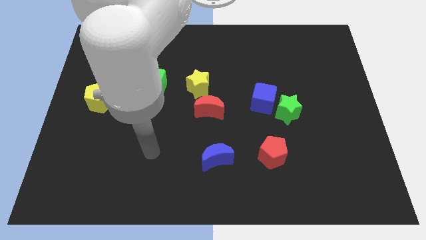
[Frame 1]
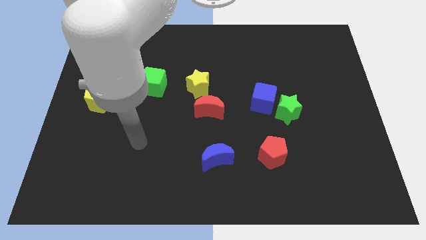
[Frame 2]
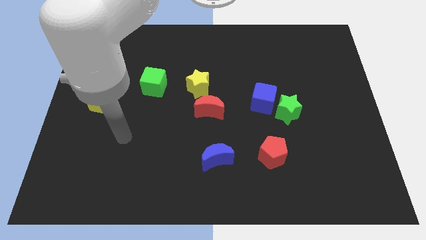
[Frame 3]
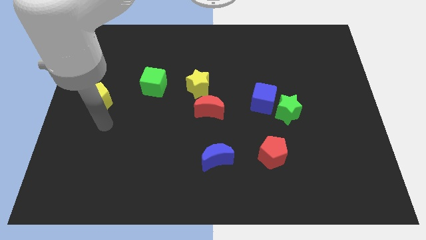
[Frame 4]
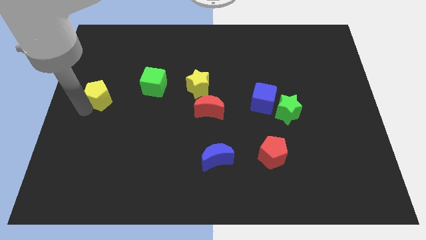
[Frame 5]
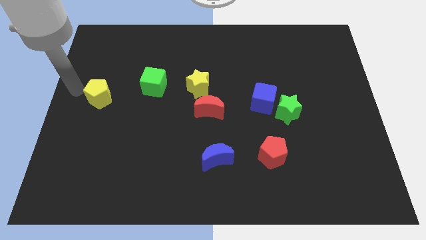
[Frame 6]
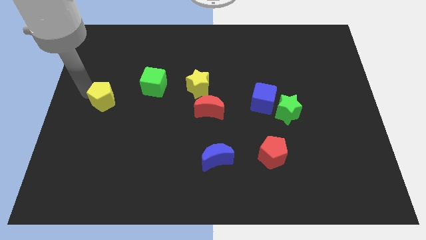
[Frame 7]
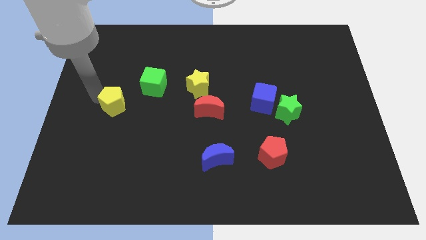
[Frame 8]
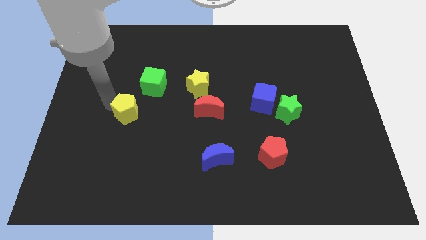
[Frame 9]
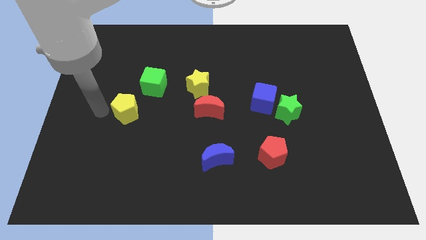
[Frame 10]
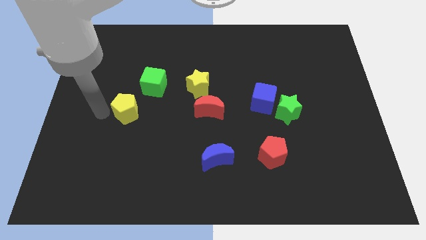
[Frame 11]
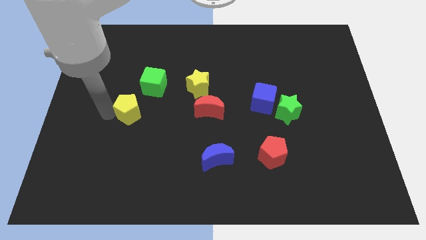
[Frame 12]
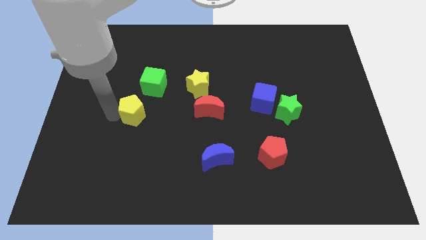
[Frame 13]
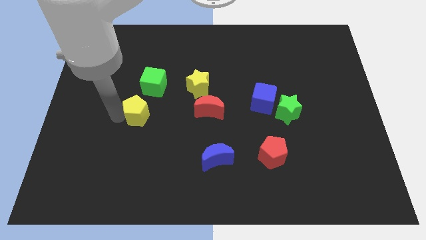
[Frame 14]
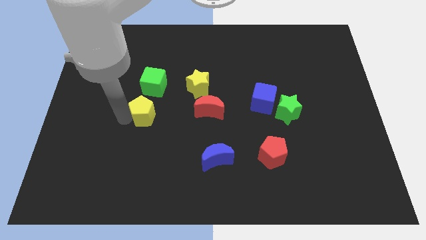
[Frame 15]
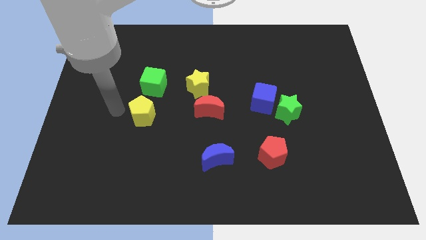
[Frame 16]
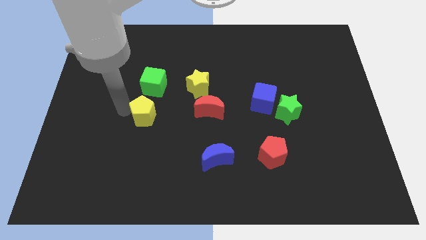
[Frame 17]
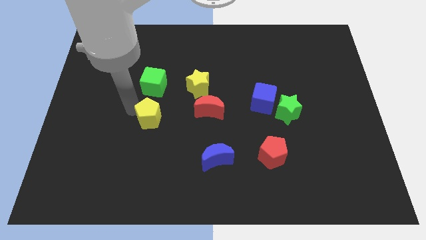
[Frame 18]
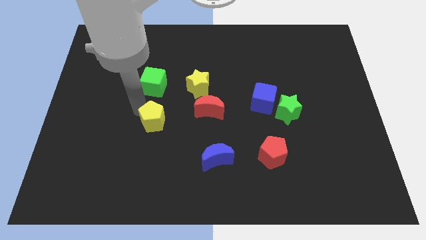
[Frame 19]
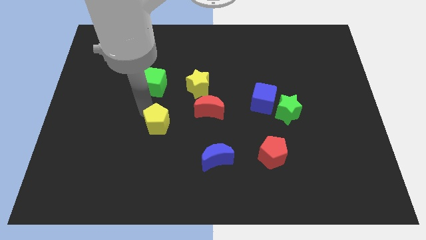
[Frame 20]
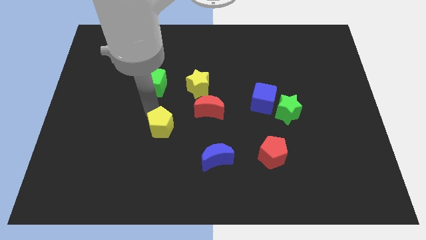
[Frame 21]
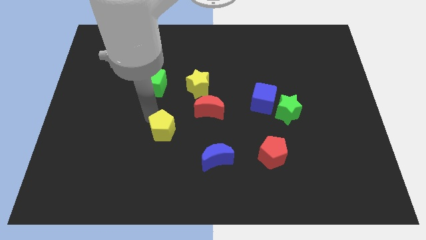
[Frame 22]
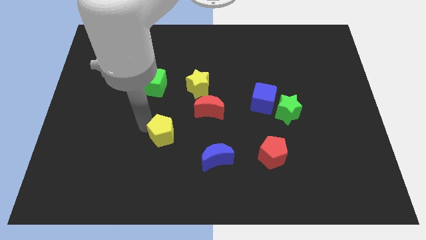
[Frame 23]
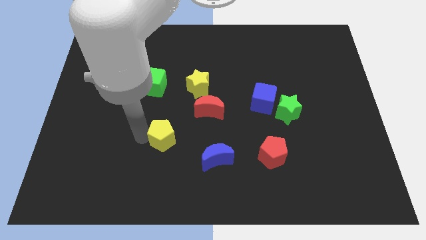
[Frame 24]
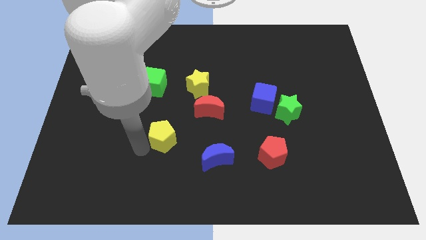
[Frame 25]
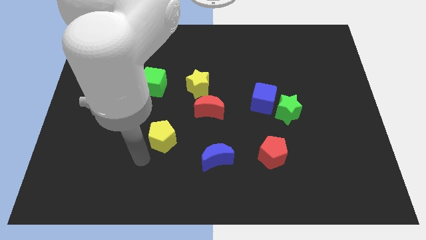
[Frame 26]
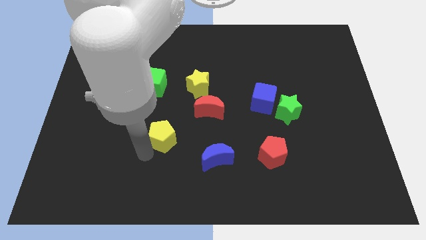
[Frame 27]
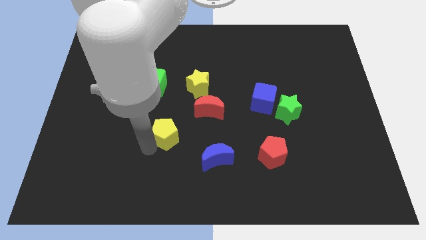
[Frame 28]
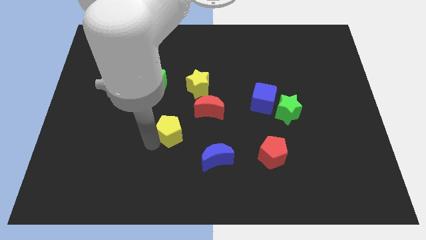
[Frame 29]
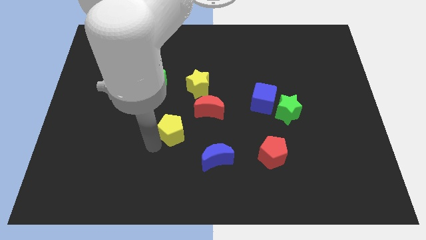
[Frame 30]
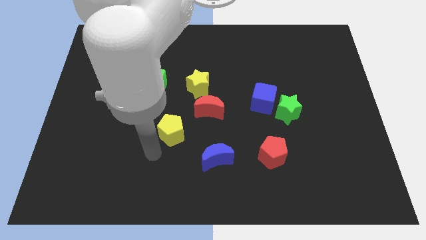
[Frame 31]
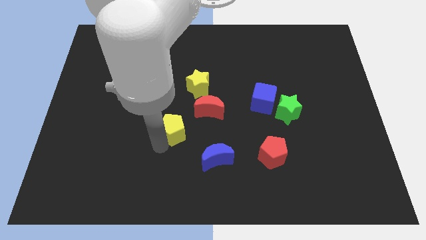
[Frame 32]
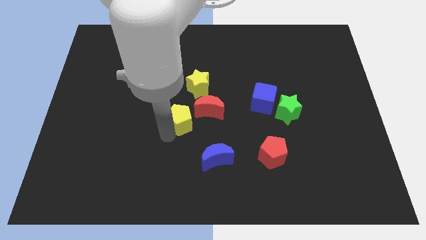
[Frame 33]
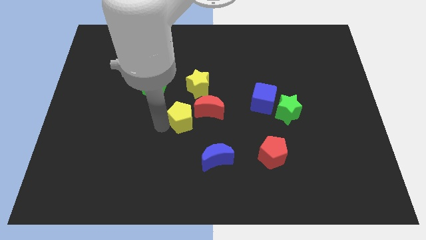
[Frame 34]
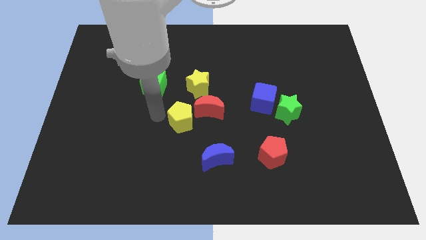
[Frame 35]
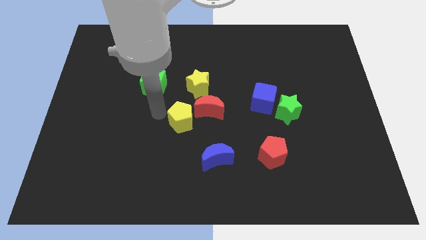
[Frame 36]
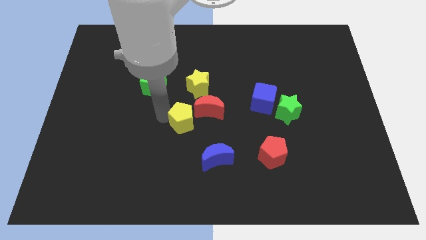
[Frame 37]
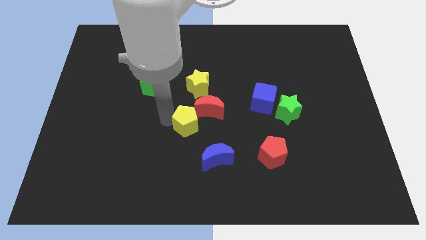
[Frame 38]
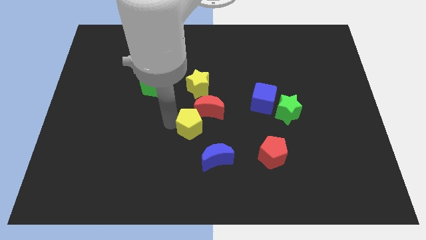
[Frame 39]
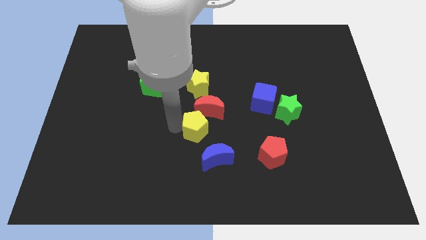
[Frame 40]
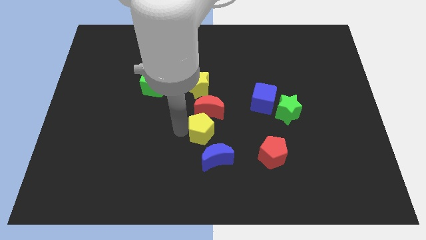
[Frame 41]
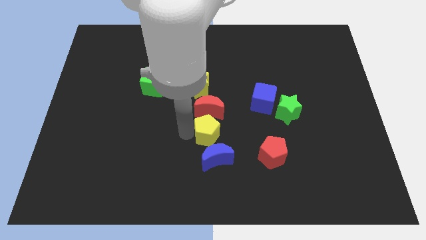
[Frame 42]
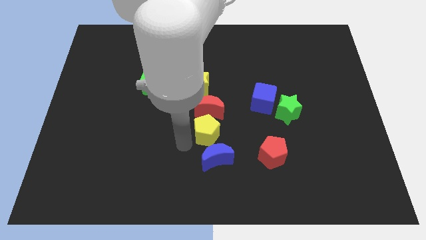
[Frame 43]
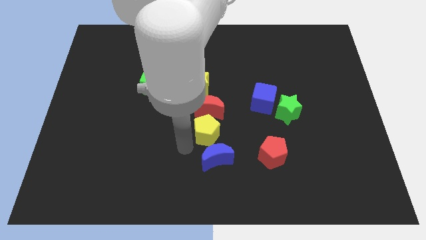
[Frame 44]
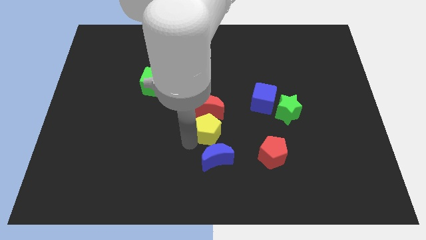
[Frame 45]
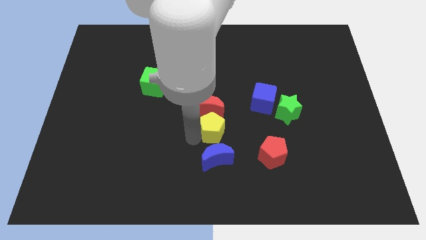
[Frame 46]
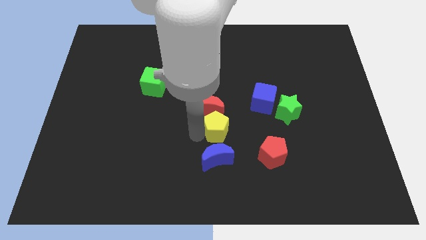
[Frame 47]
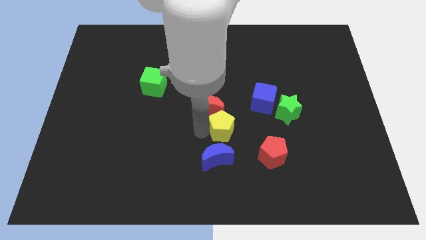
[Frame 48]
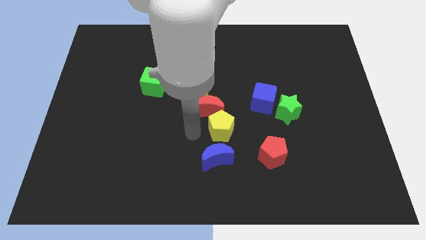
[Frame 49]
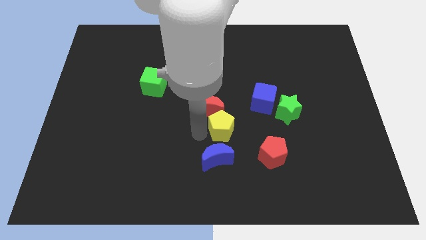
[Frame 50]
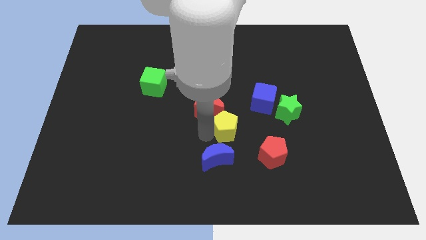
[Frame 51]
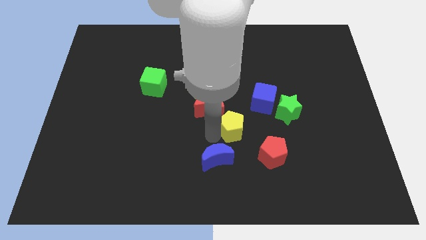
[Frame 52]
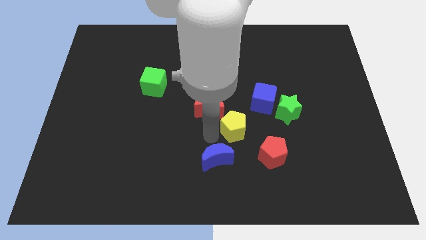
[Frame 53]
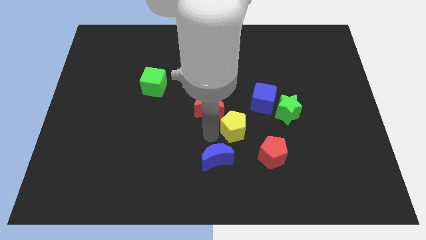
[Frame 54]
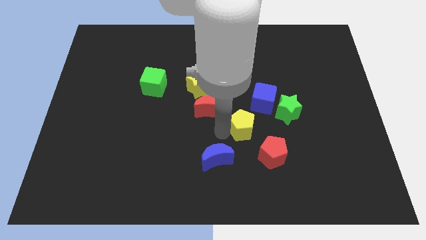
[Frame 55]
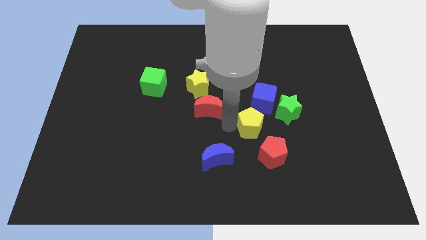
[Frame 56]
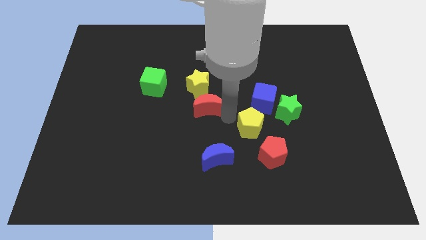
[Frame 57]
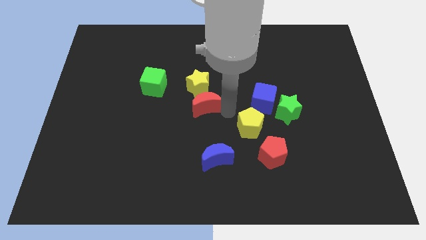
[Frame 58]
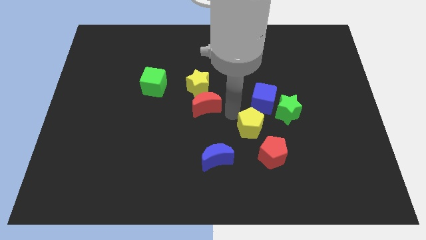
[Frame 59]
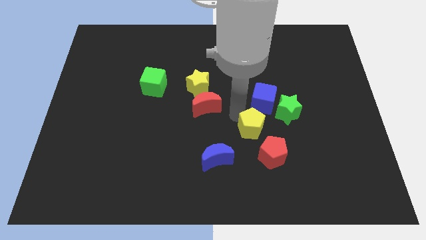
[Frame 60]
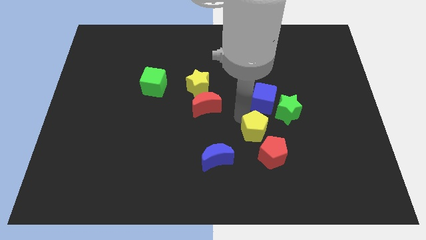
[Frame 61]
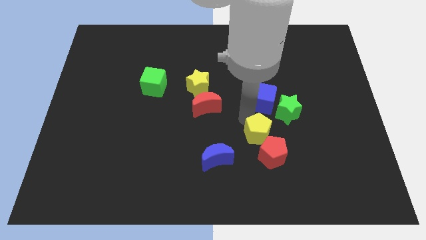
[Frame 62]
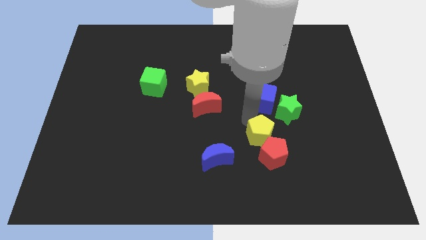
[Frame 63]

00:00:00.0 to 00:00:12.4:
put the yellow pentagon towards the red pentagon

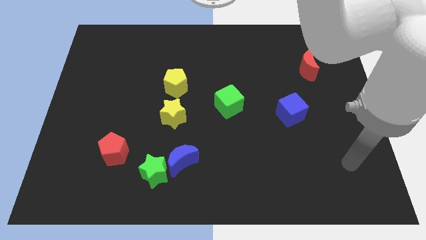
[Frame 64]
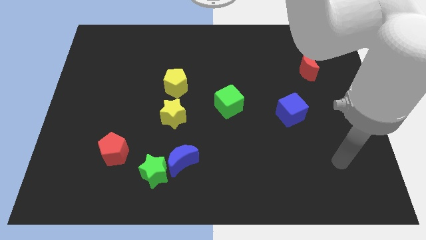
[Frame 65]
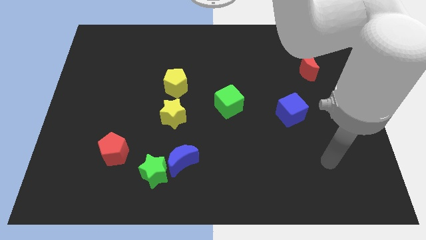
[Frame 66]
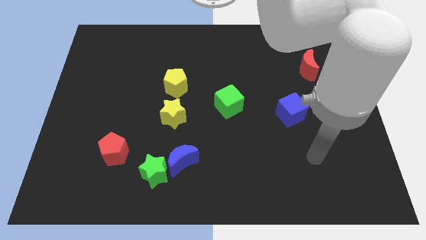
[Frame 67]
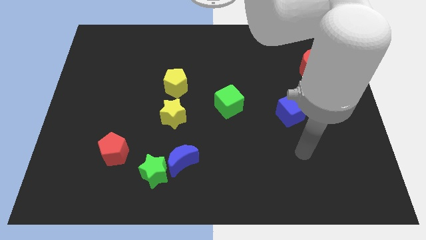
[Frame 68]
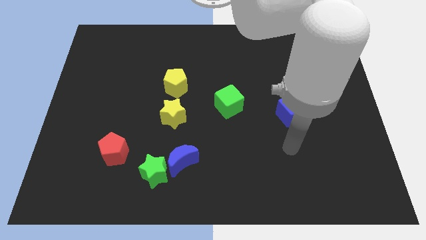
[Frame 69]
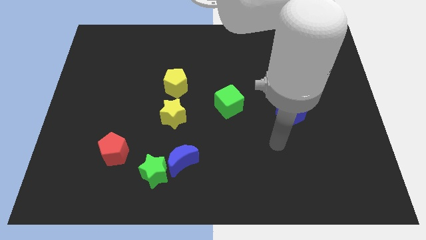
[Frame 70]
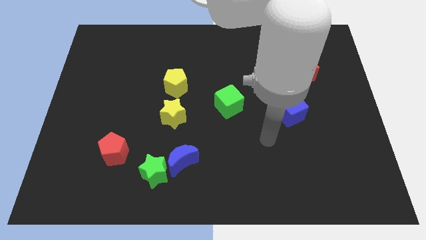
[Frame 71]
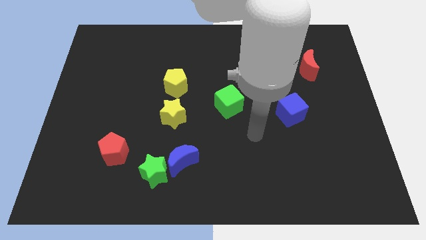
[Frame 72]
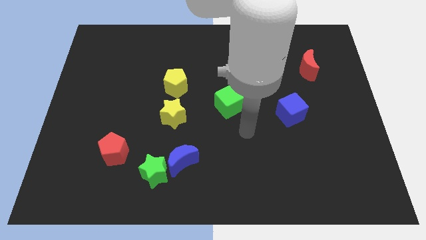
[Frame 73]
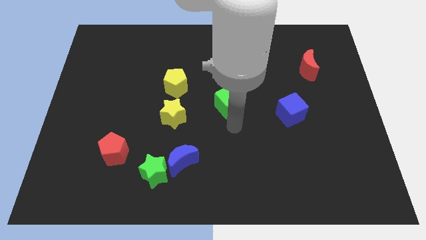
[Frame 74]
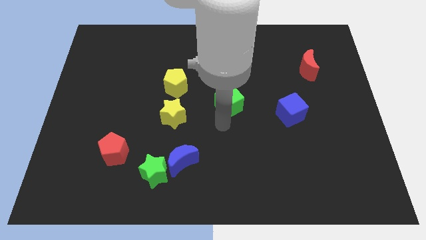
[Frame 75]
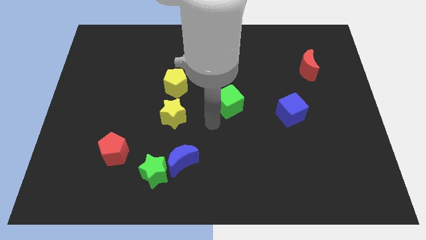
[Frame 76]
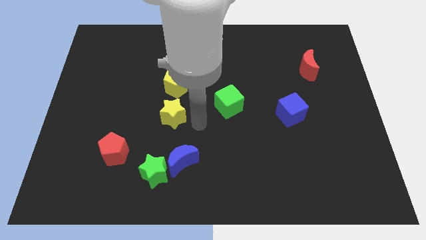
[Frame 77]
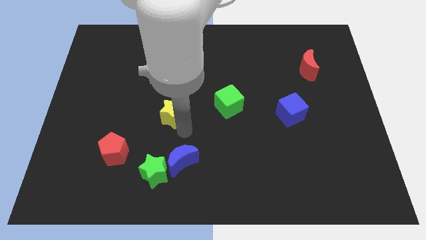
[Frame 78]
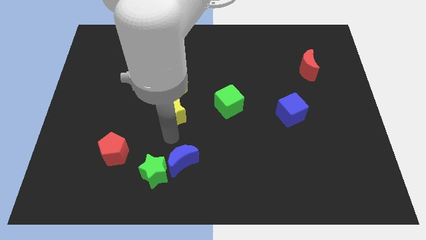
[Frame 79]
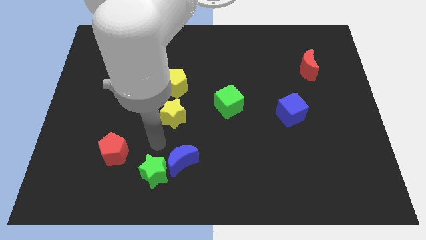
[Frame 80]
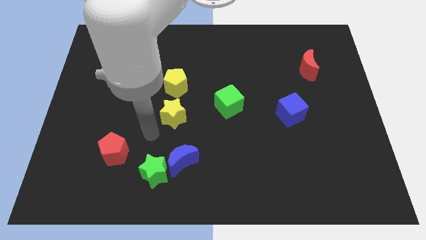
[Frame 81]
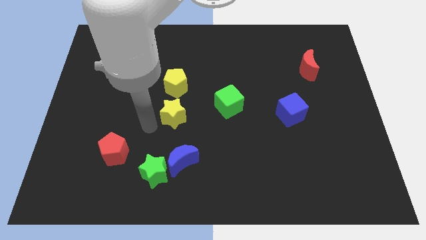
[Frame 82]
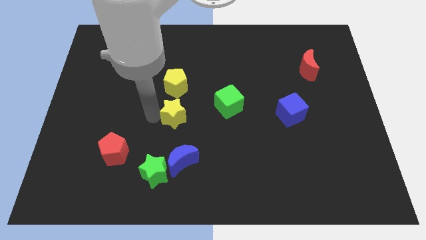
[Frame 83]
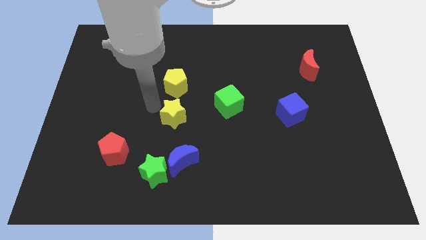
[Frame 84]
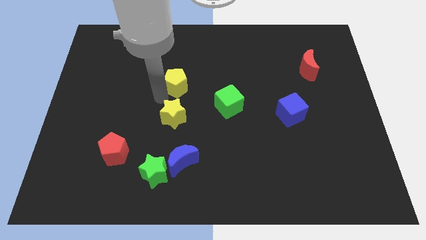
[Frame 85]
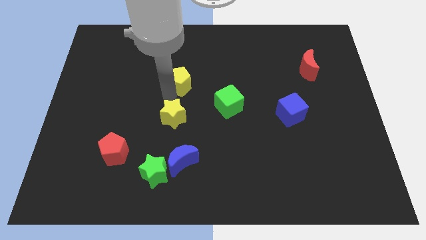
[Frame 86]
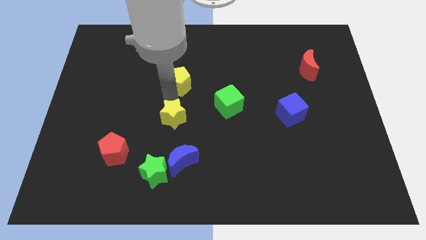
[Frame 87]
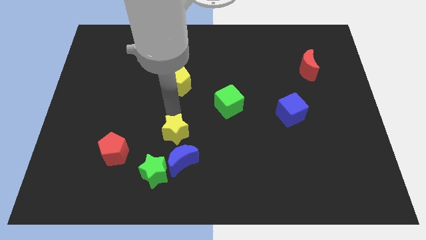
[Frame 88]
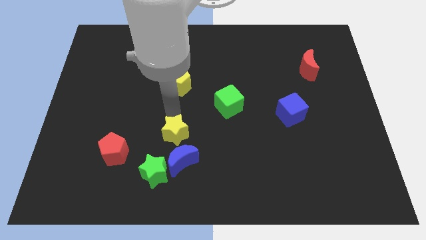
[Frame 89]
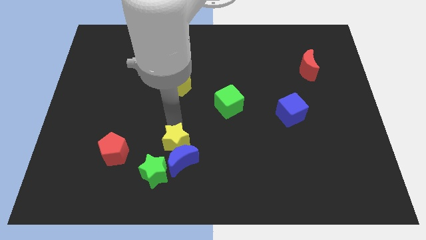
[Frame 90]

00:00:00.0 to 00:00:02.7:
put the yellow star towards the blue moon

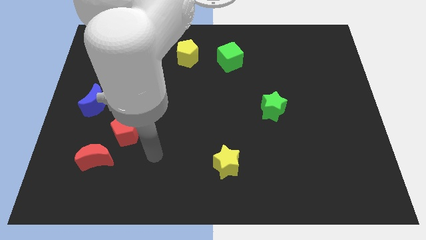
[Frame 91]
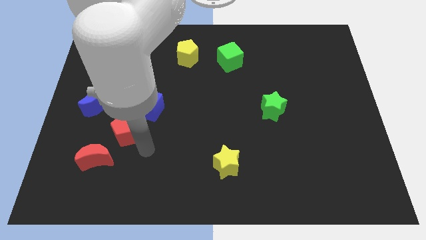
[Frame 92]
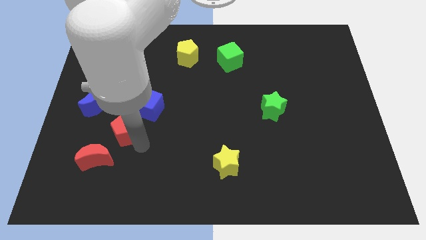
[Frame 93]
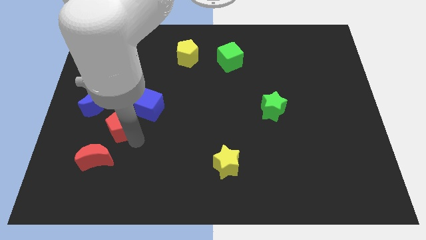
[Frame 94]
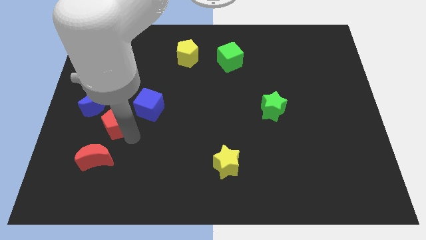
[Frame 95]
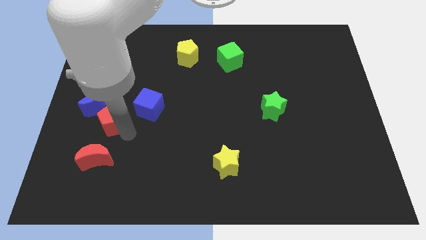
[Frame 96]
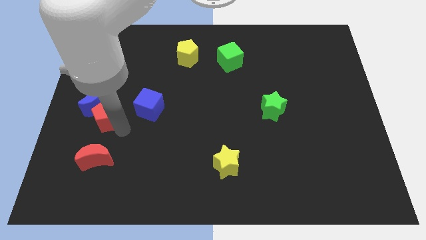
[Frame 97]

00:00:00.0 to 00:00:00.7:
slide the red pentagon close to the blue moon
